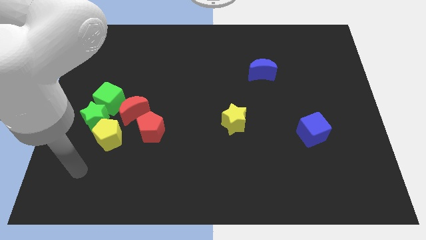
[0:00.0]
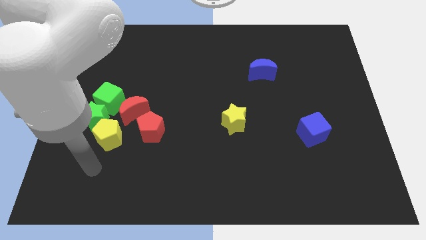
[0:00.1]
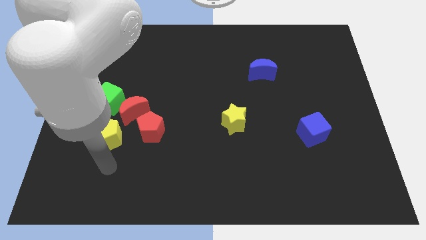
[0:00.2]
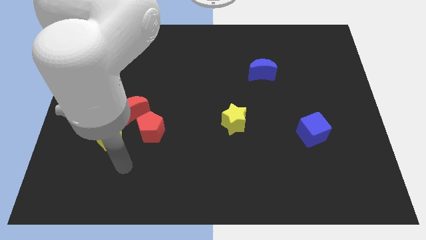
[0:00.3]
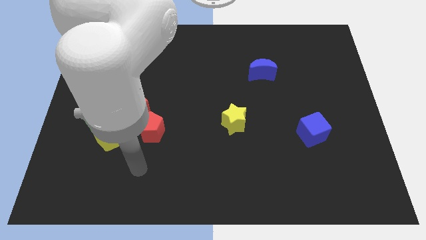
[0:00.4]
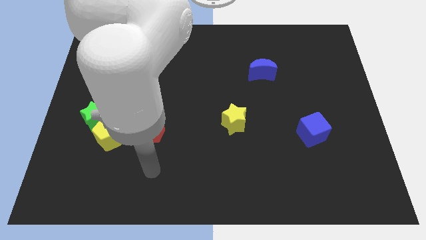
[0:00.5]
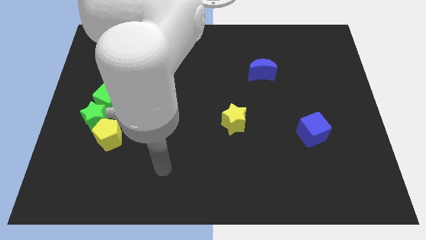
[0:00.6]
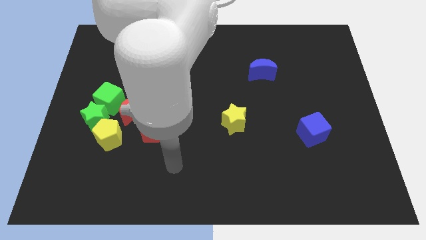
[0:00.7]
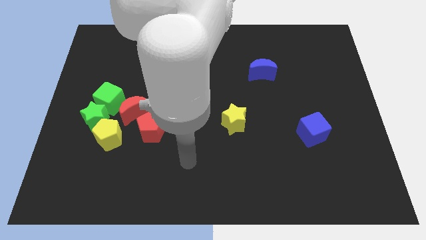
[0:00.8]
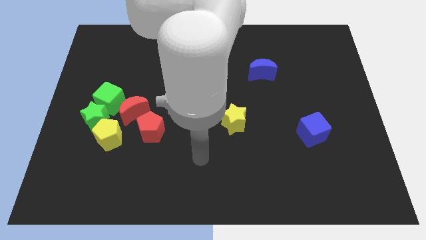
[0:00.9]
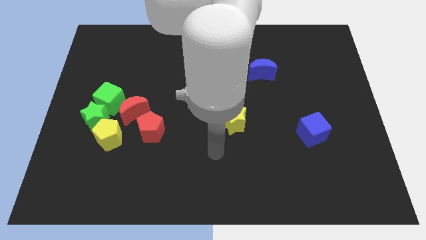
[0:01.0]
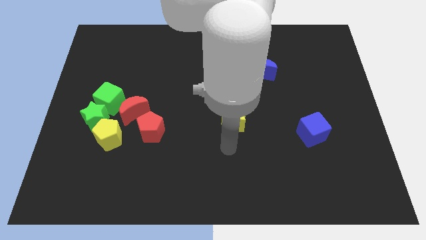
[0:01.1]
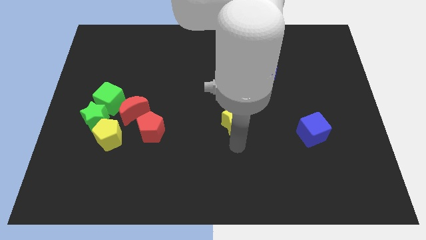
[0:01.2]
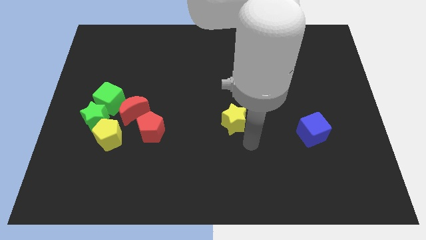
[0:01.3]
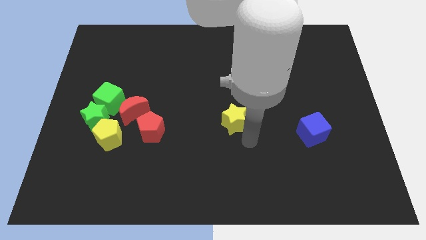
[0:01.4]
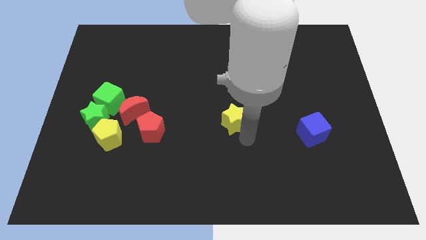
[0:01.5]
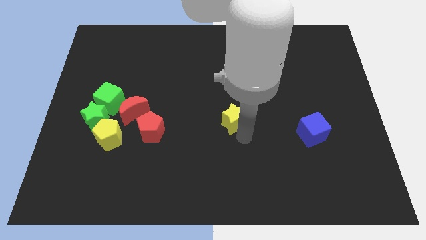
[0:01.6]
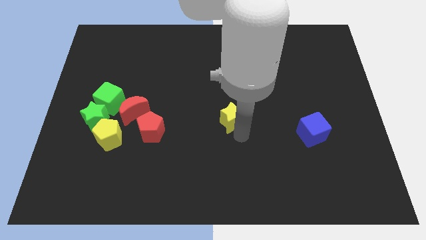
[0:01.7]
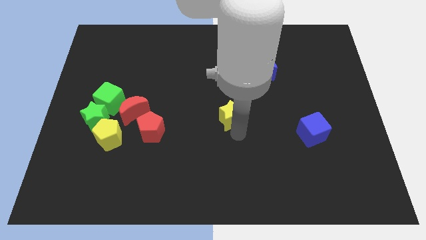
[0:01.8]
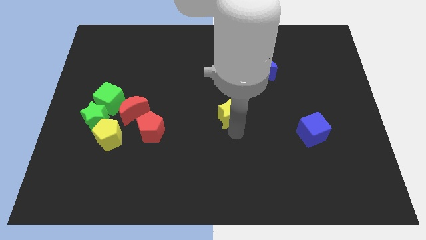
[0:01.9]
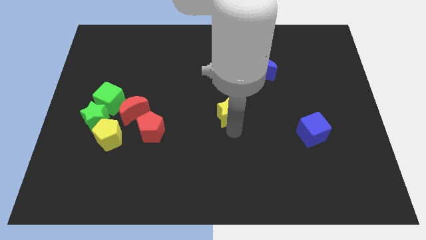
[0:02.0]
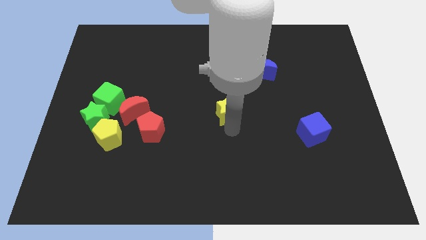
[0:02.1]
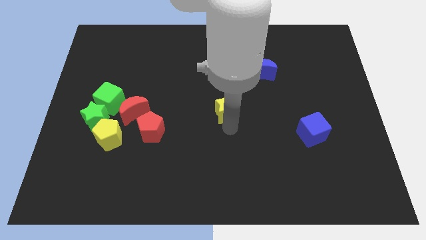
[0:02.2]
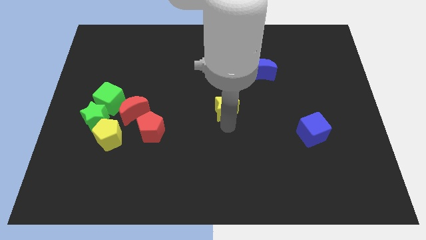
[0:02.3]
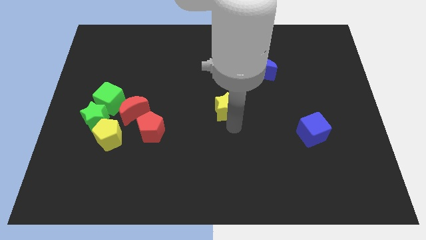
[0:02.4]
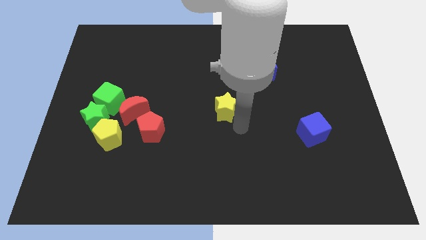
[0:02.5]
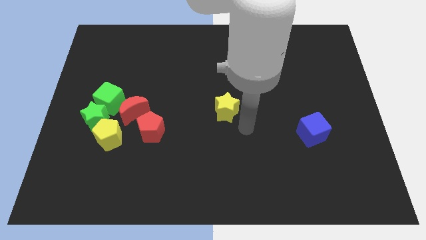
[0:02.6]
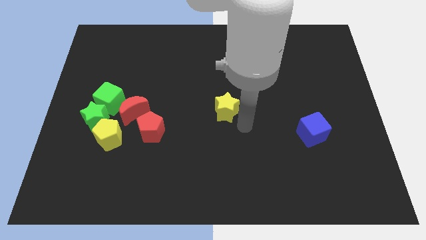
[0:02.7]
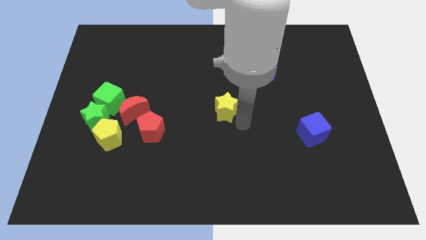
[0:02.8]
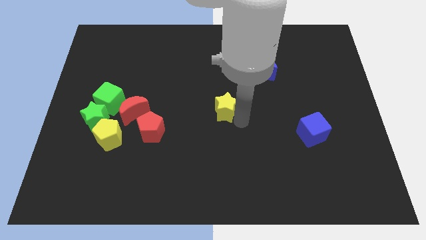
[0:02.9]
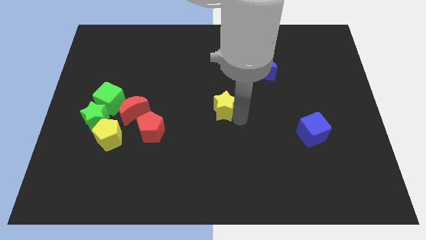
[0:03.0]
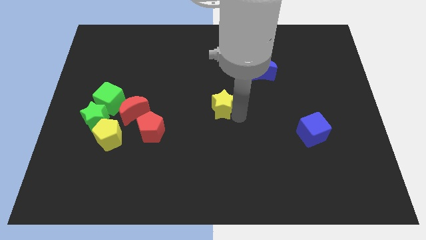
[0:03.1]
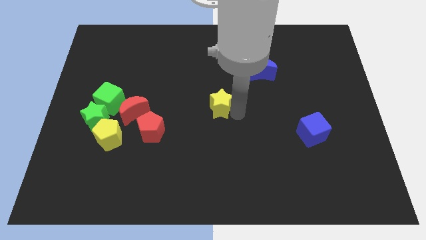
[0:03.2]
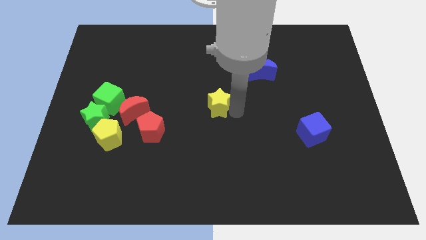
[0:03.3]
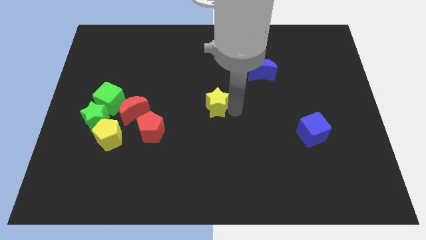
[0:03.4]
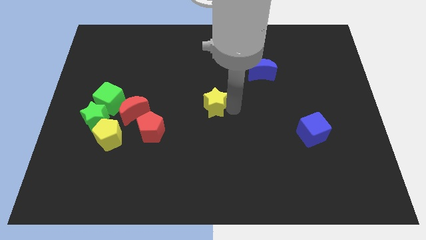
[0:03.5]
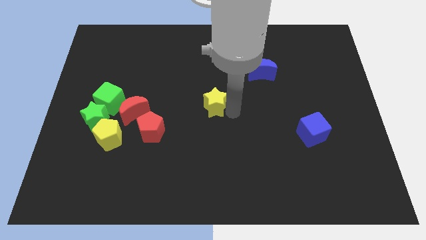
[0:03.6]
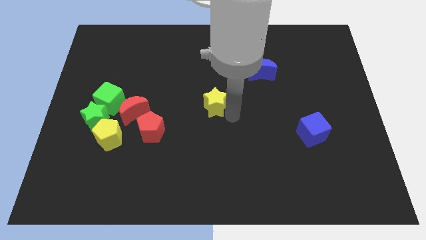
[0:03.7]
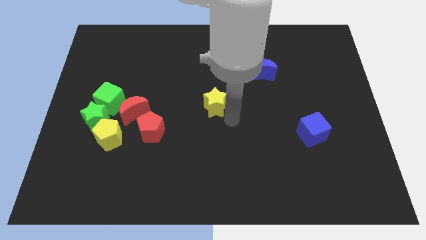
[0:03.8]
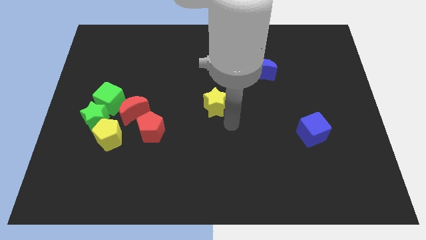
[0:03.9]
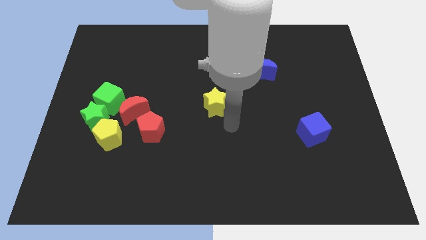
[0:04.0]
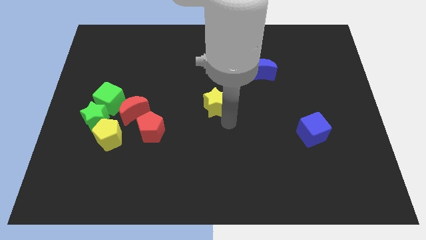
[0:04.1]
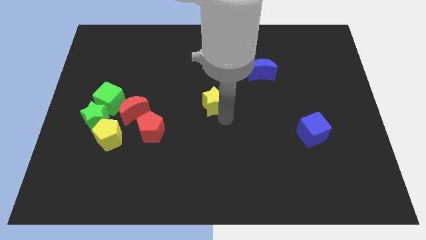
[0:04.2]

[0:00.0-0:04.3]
slide the yellow star slightly up and then left

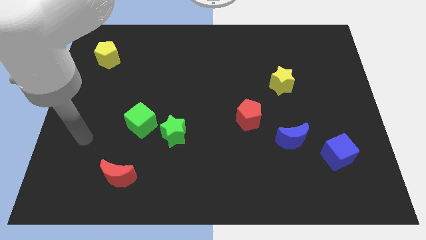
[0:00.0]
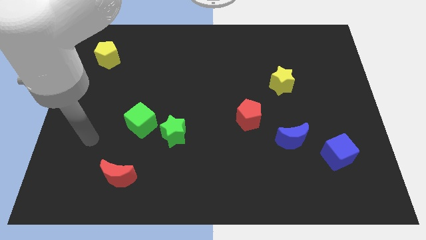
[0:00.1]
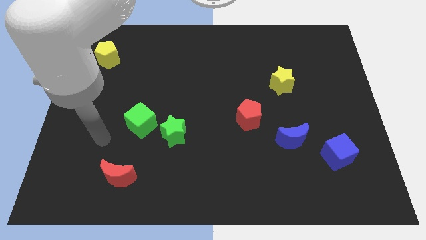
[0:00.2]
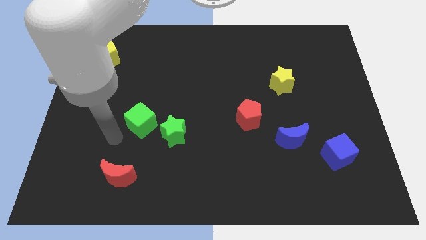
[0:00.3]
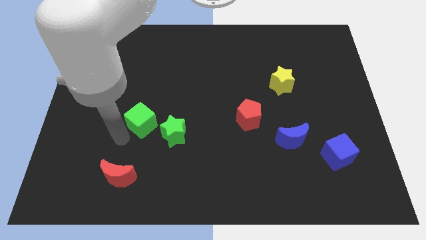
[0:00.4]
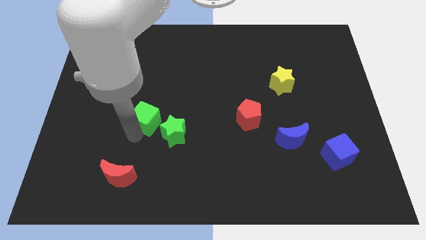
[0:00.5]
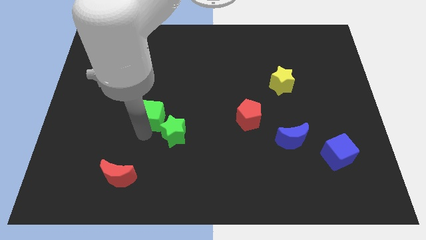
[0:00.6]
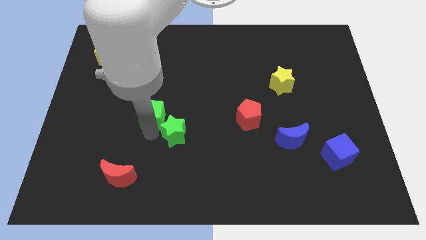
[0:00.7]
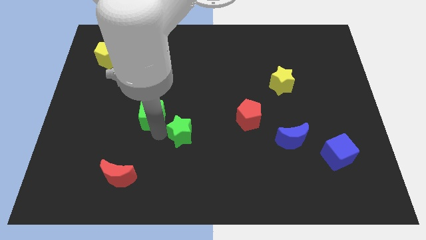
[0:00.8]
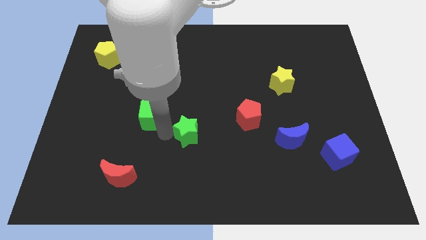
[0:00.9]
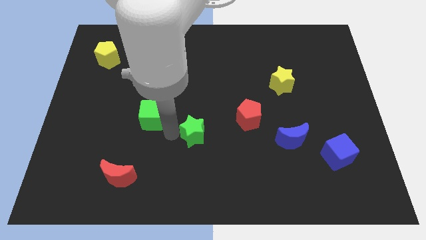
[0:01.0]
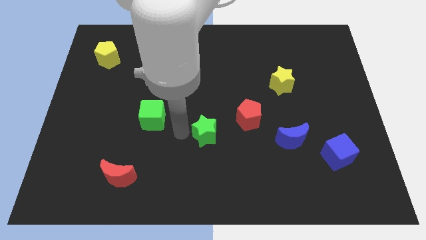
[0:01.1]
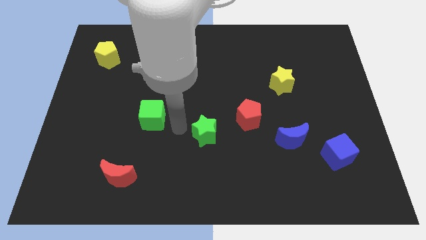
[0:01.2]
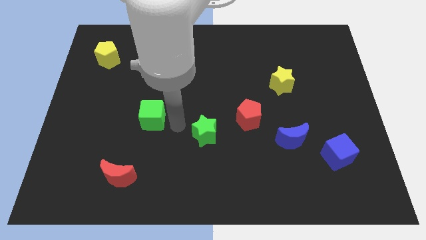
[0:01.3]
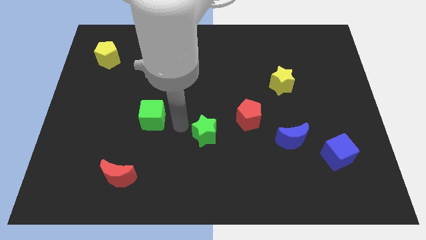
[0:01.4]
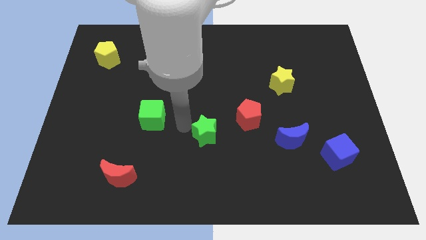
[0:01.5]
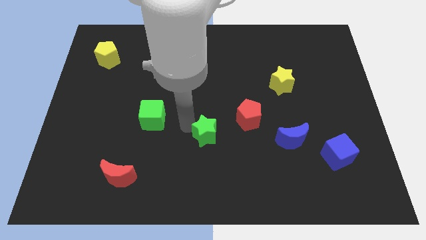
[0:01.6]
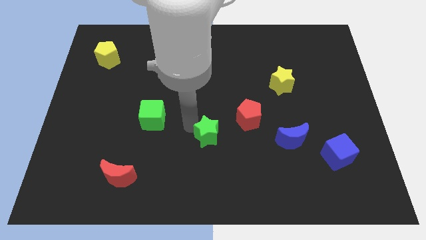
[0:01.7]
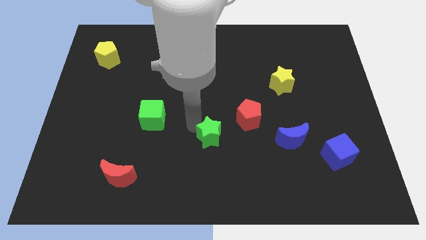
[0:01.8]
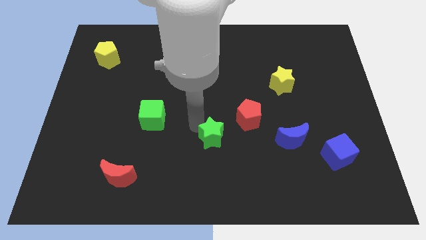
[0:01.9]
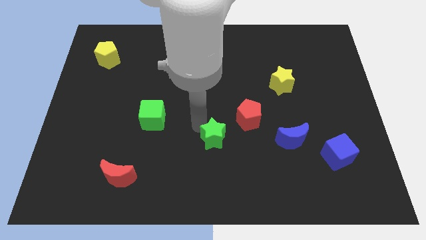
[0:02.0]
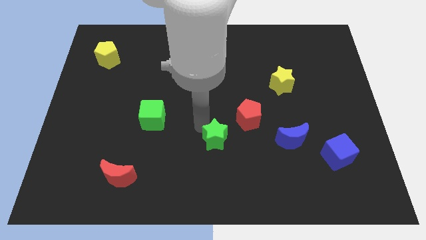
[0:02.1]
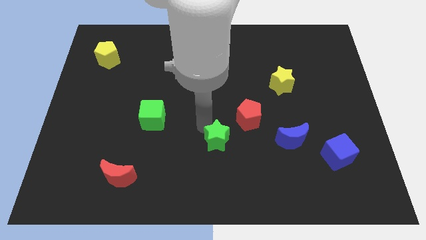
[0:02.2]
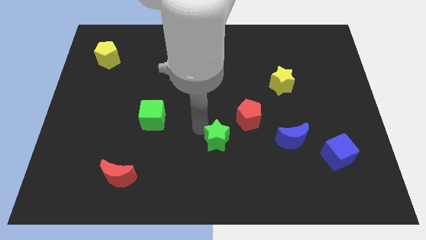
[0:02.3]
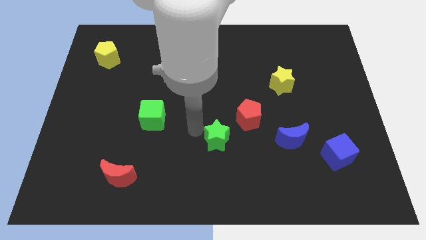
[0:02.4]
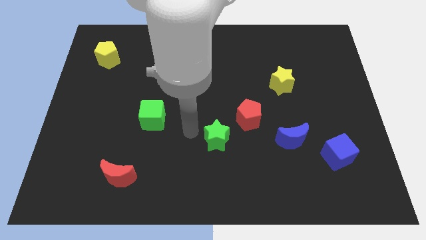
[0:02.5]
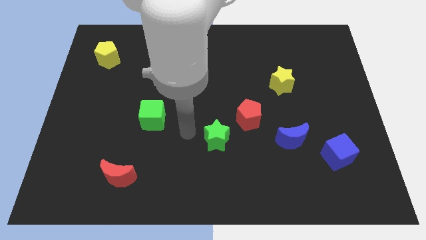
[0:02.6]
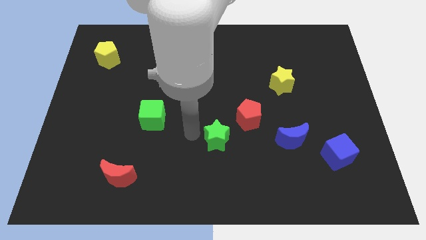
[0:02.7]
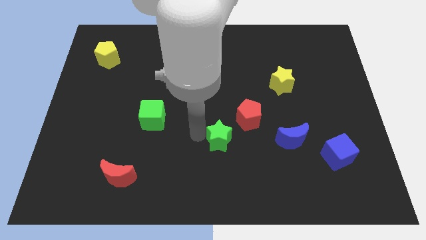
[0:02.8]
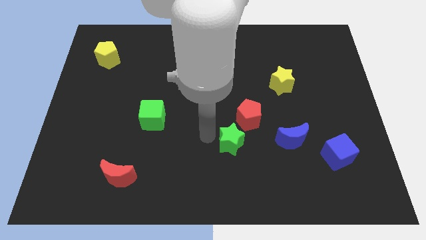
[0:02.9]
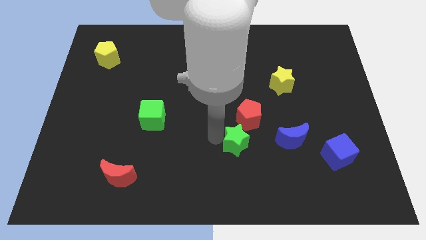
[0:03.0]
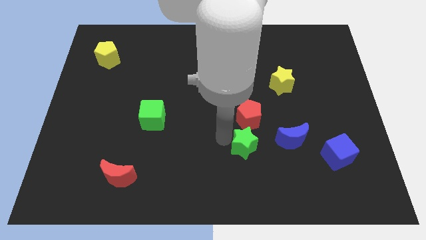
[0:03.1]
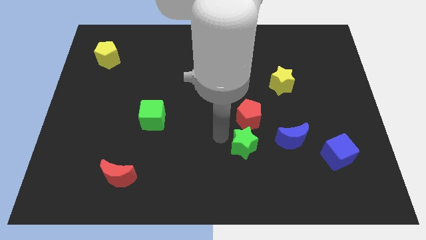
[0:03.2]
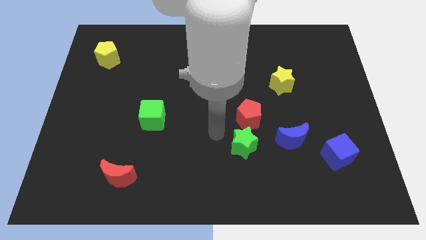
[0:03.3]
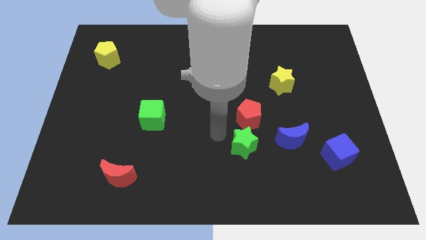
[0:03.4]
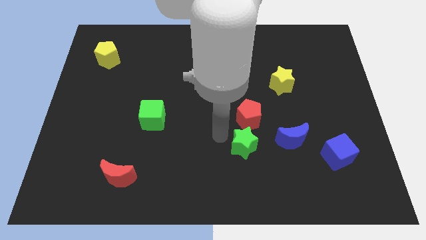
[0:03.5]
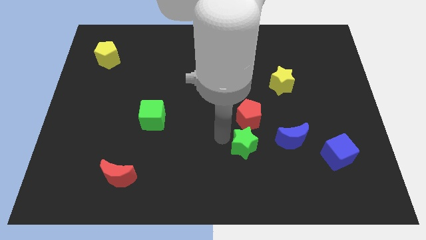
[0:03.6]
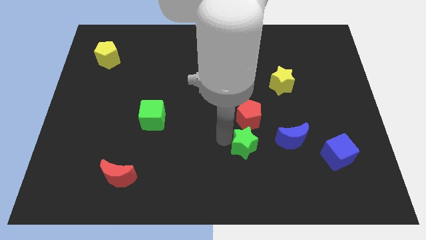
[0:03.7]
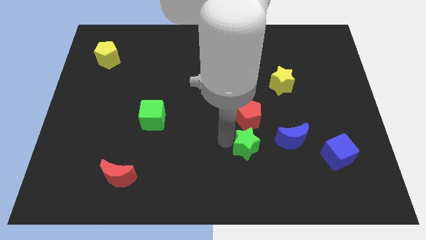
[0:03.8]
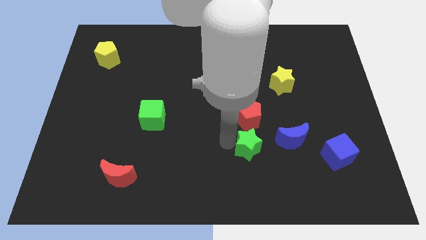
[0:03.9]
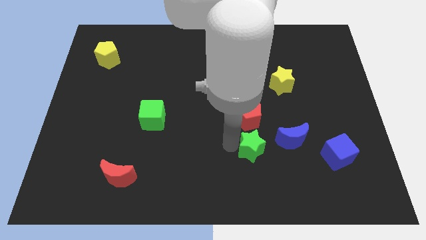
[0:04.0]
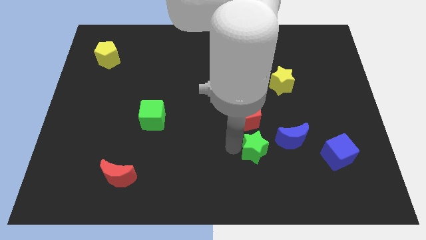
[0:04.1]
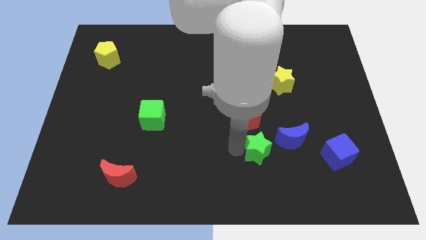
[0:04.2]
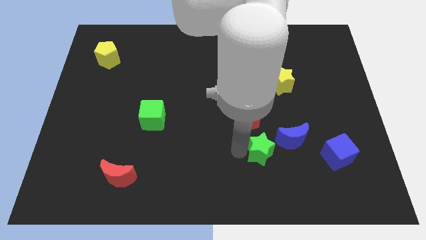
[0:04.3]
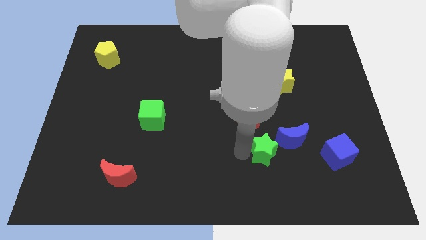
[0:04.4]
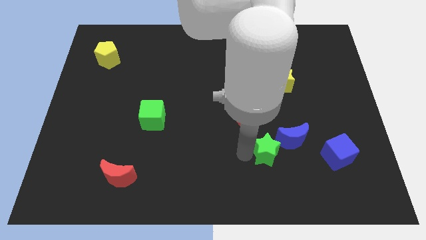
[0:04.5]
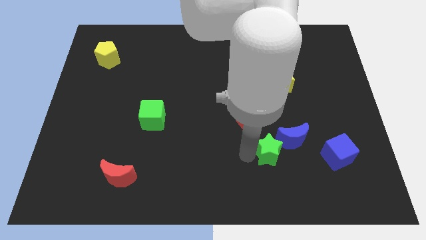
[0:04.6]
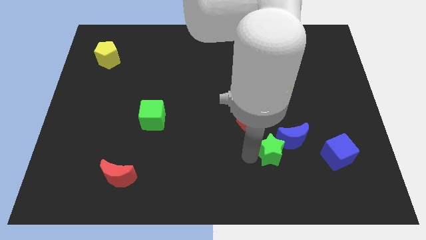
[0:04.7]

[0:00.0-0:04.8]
move the green star right
